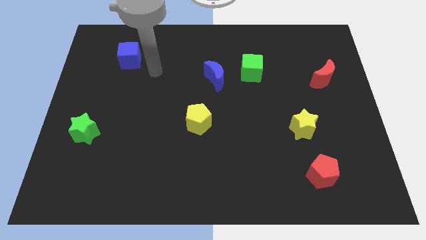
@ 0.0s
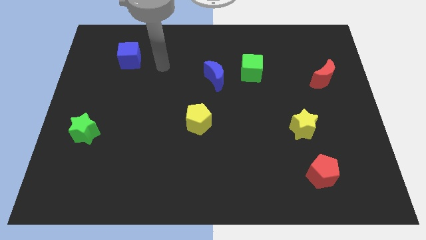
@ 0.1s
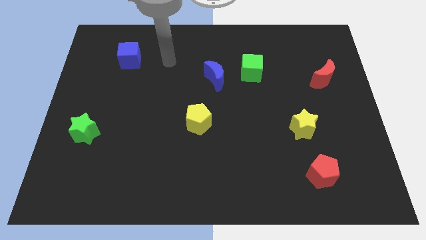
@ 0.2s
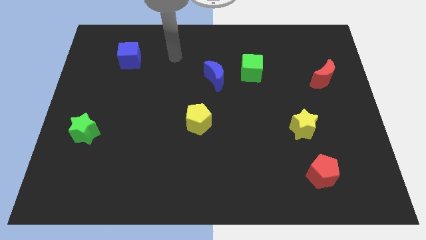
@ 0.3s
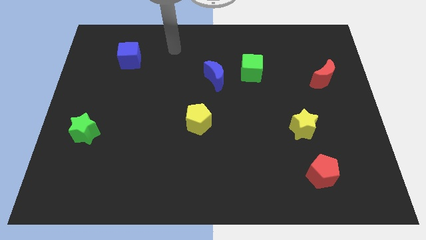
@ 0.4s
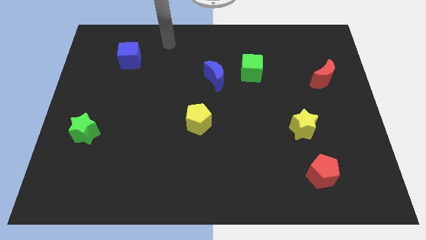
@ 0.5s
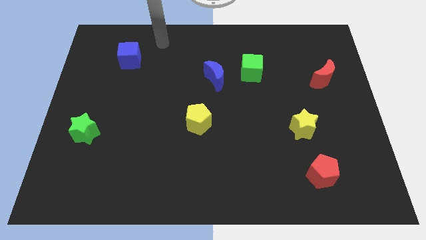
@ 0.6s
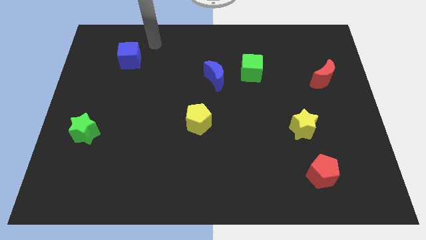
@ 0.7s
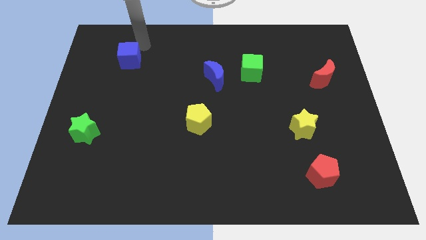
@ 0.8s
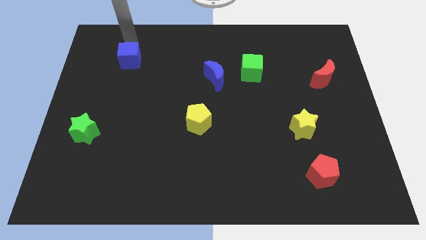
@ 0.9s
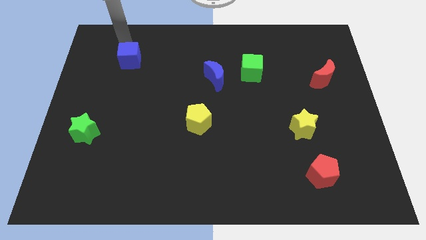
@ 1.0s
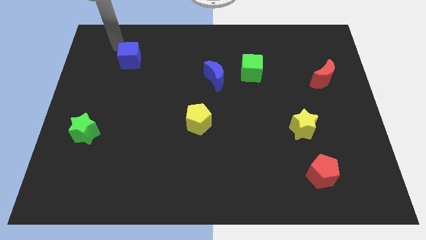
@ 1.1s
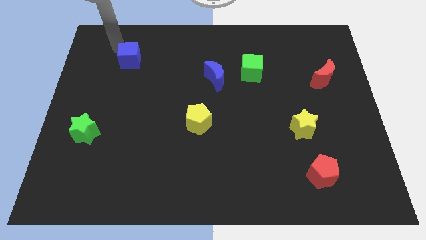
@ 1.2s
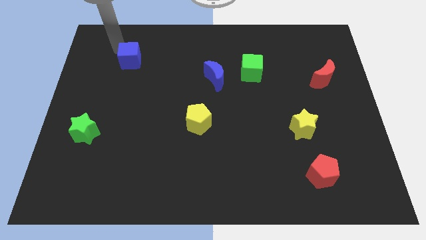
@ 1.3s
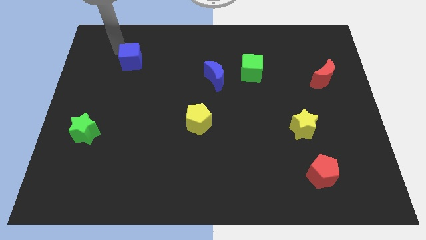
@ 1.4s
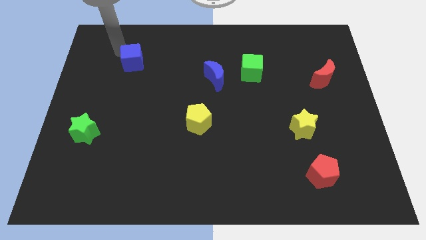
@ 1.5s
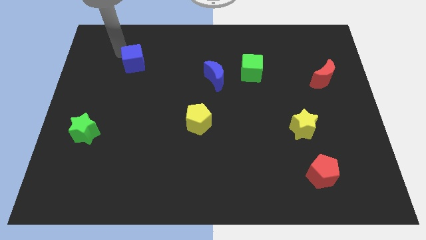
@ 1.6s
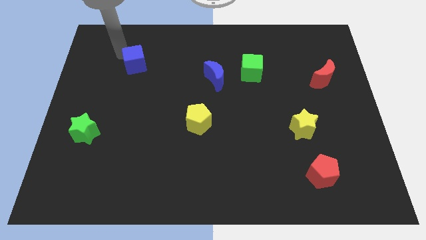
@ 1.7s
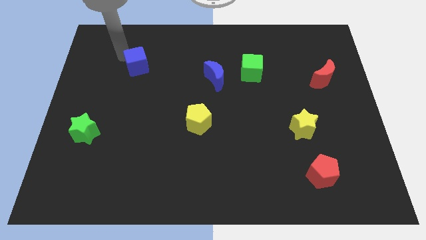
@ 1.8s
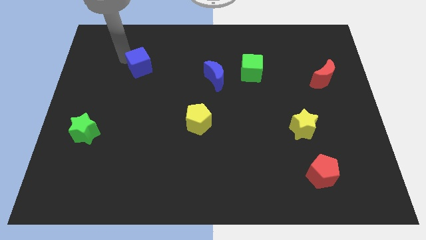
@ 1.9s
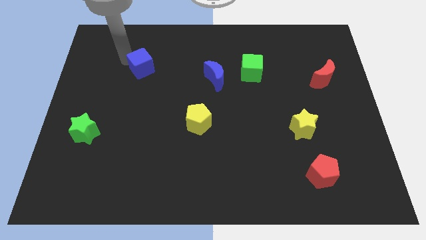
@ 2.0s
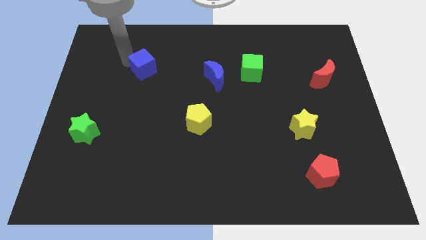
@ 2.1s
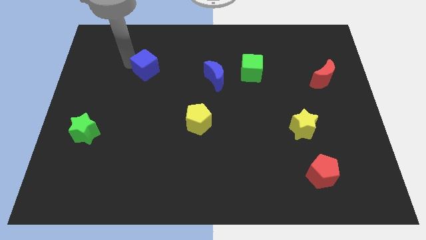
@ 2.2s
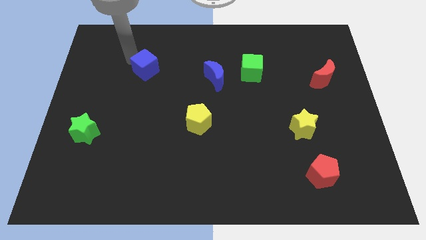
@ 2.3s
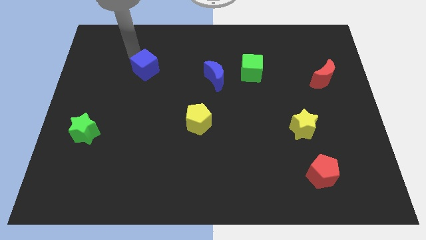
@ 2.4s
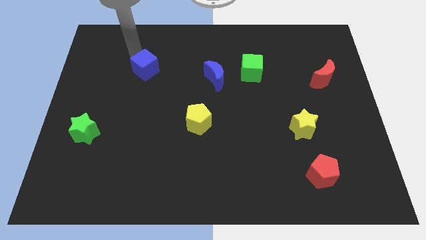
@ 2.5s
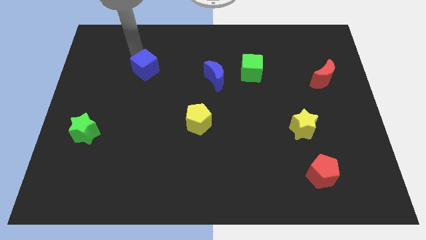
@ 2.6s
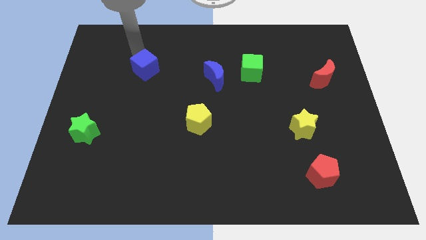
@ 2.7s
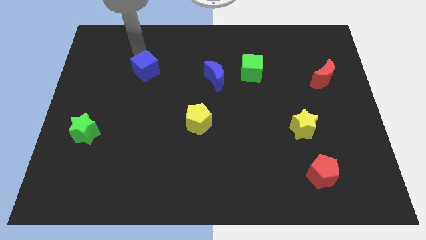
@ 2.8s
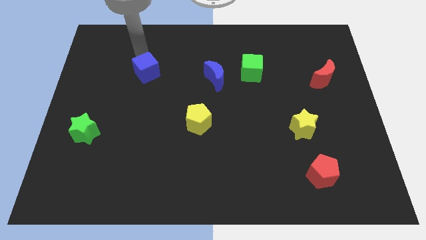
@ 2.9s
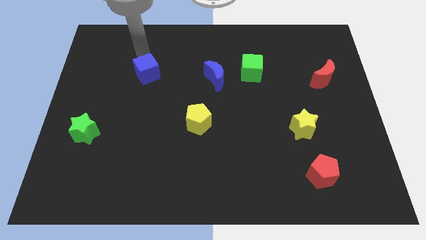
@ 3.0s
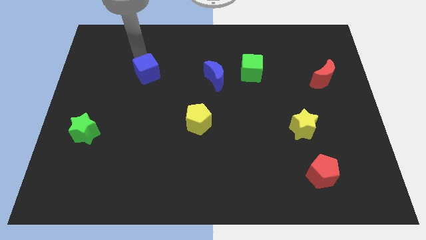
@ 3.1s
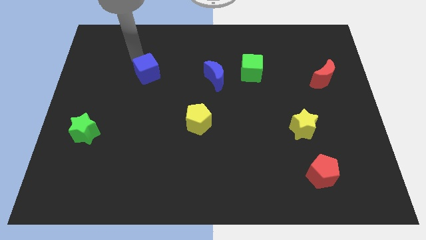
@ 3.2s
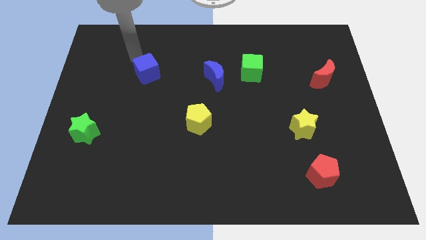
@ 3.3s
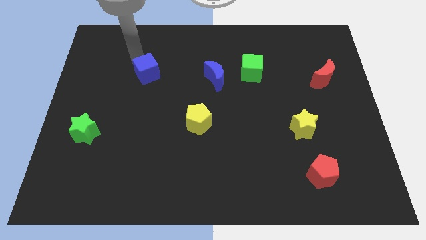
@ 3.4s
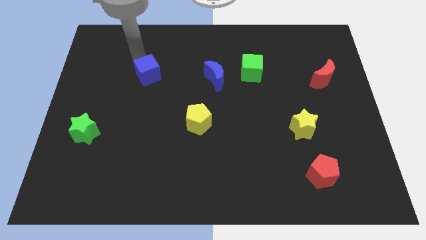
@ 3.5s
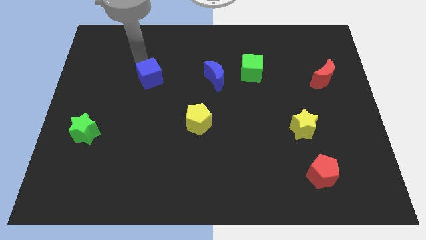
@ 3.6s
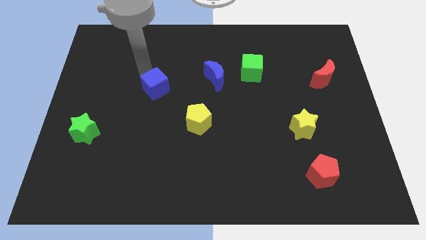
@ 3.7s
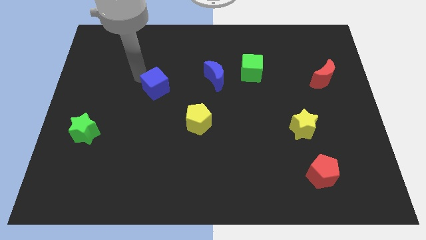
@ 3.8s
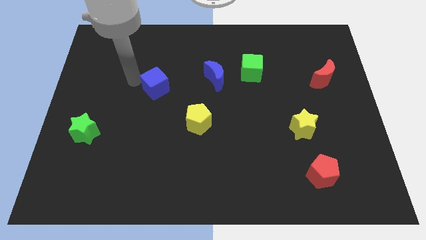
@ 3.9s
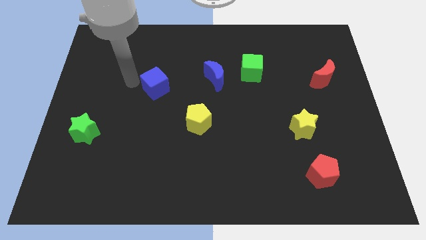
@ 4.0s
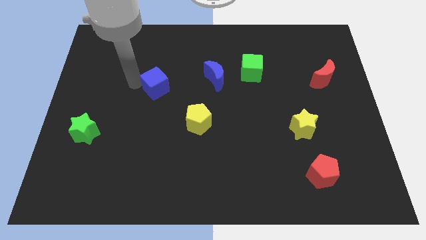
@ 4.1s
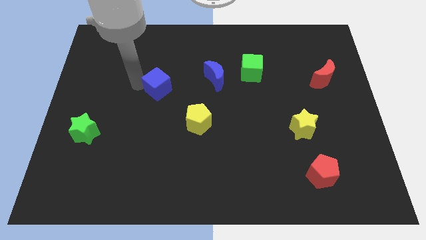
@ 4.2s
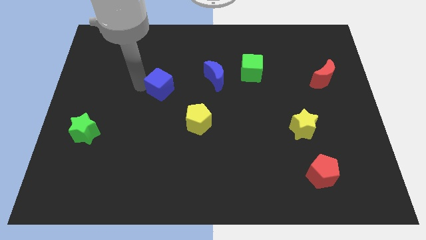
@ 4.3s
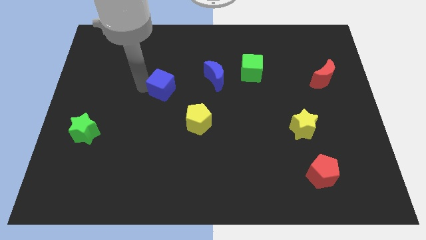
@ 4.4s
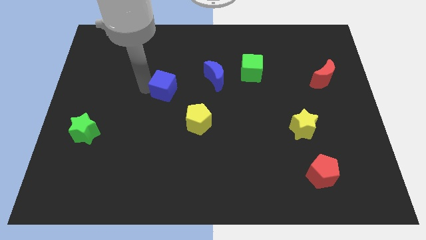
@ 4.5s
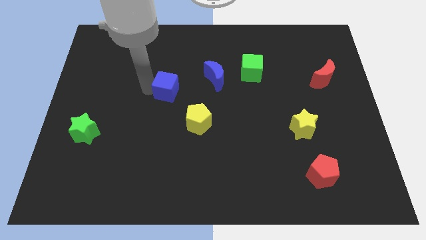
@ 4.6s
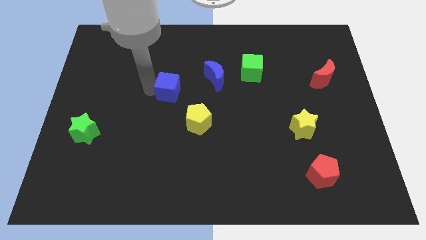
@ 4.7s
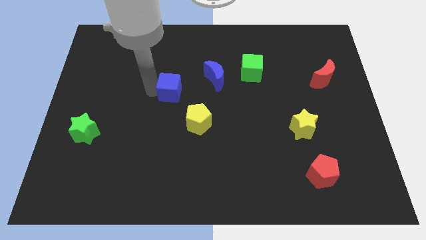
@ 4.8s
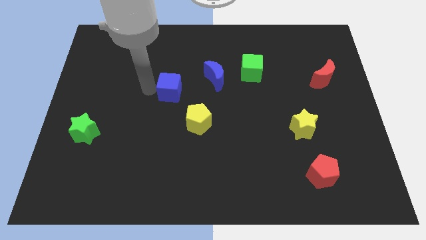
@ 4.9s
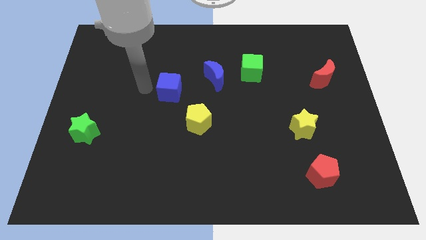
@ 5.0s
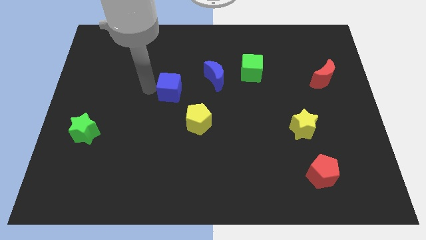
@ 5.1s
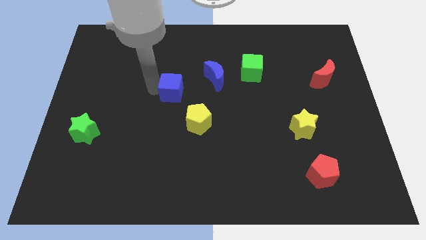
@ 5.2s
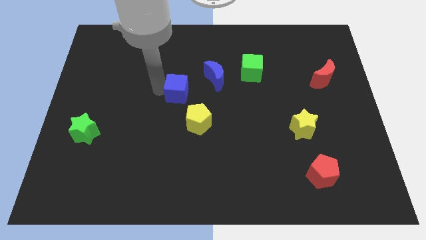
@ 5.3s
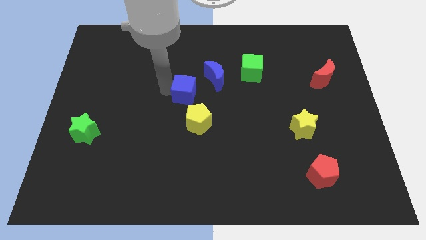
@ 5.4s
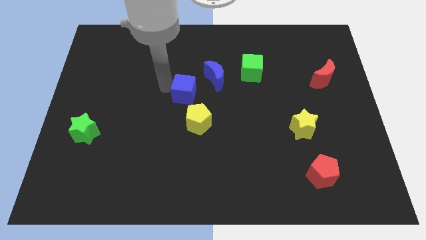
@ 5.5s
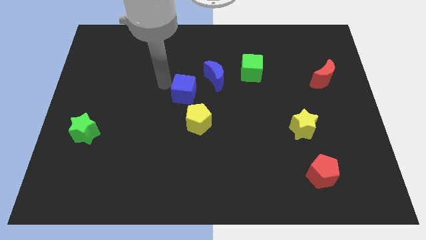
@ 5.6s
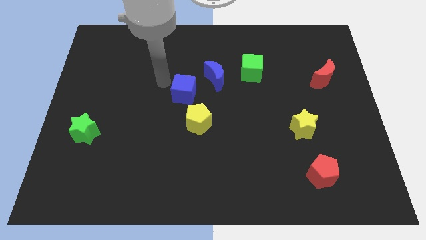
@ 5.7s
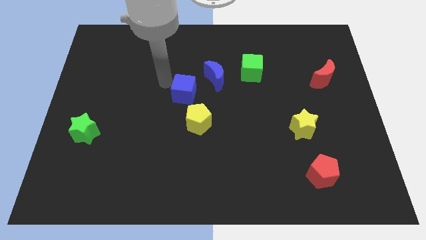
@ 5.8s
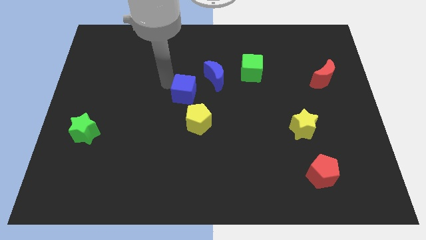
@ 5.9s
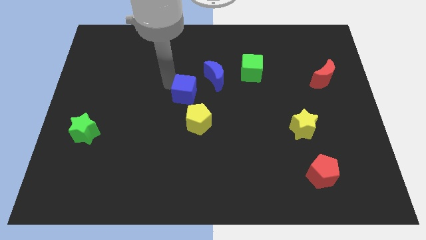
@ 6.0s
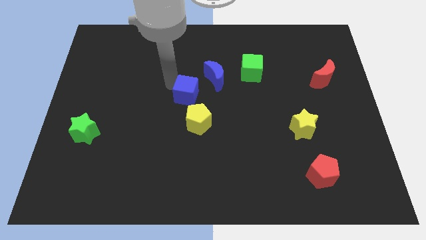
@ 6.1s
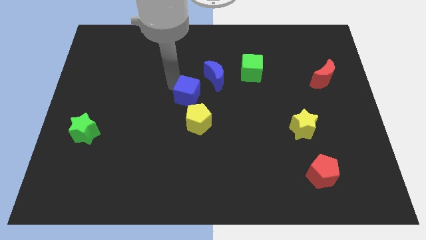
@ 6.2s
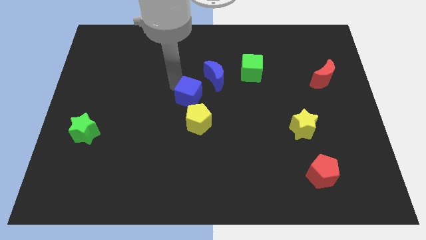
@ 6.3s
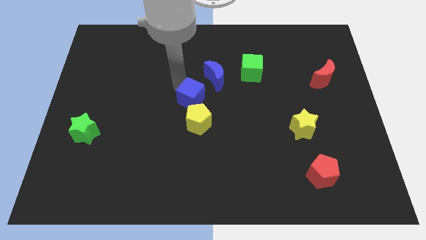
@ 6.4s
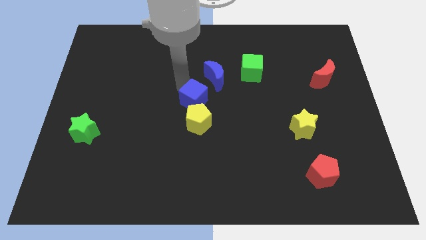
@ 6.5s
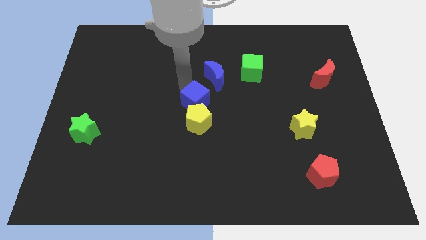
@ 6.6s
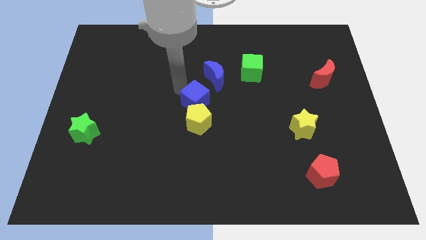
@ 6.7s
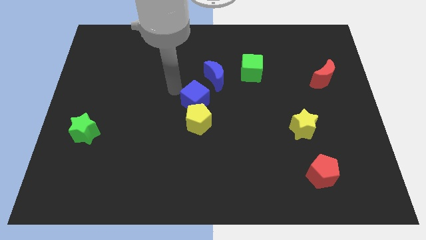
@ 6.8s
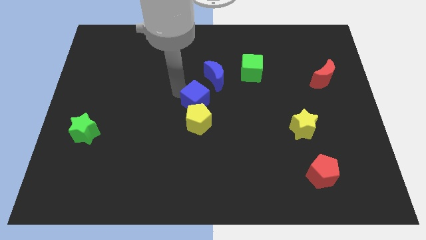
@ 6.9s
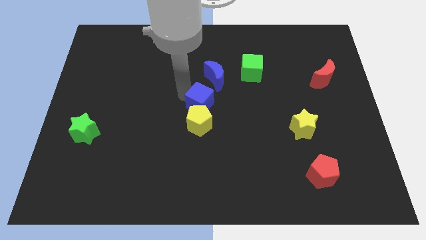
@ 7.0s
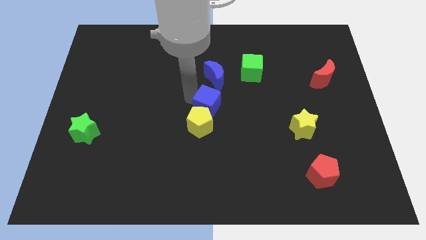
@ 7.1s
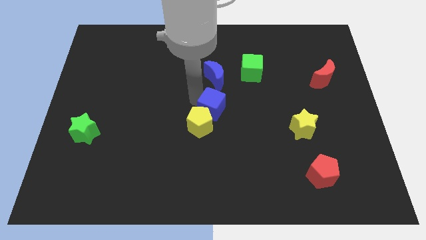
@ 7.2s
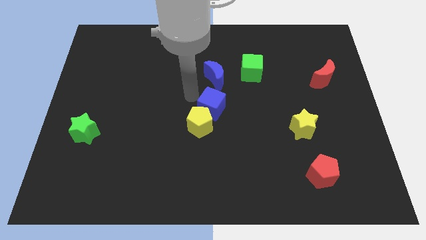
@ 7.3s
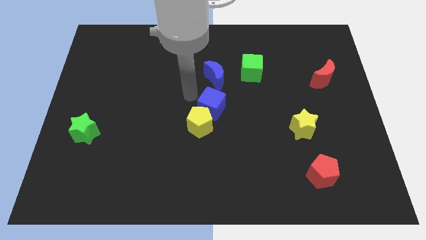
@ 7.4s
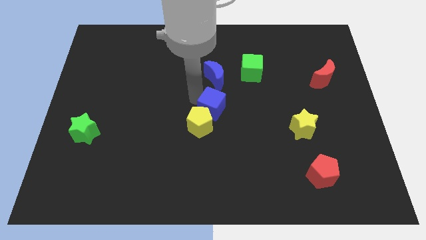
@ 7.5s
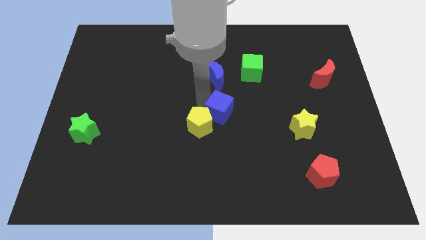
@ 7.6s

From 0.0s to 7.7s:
move the blue cube to the right side of the yellow pentagon
